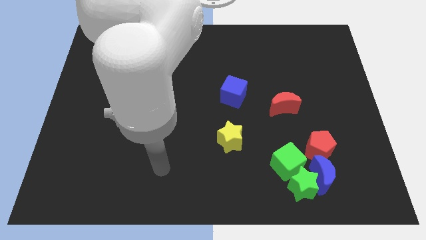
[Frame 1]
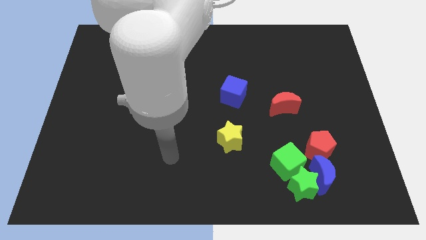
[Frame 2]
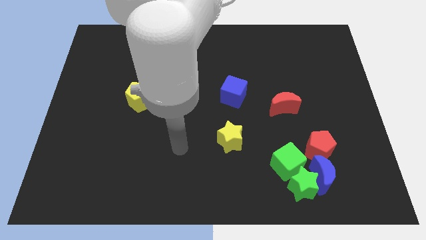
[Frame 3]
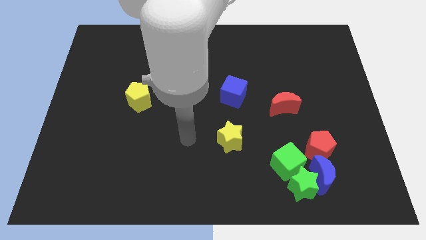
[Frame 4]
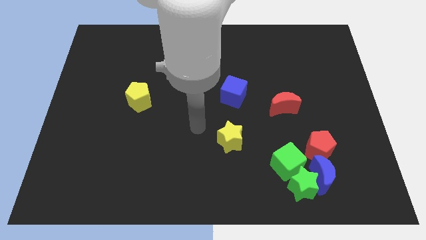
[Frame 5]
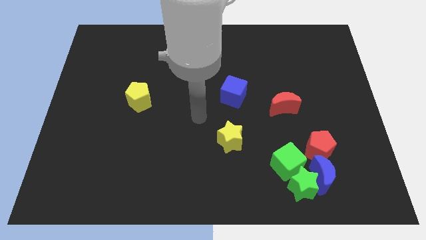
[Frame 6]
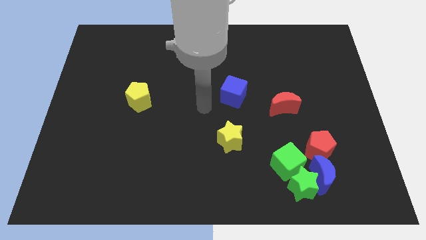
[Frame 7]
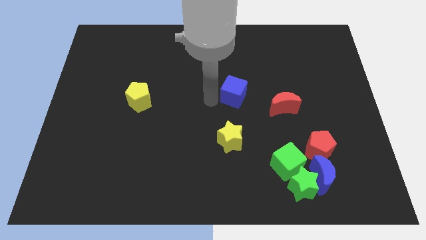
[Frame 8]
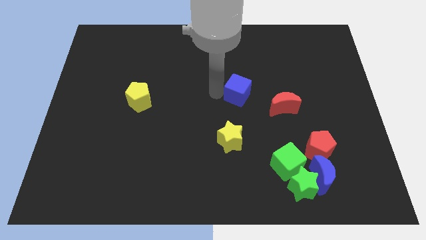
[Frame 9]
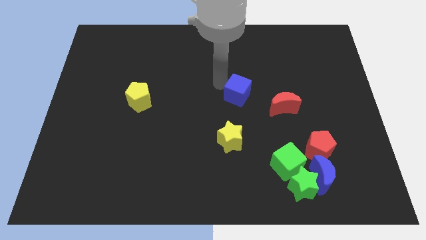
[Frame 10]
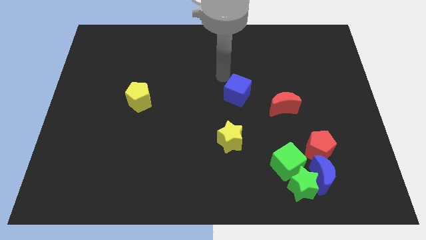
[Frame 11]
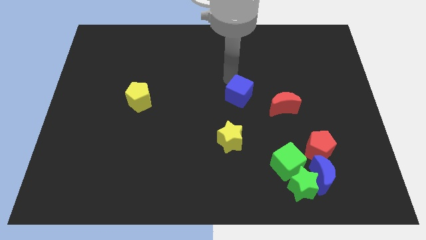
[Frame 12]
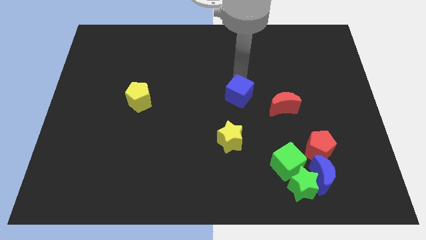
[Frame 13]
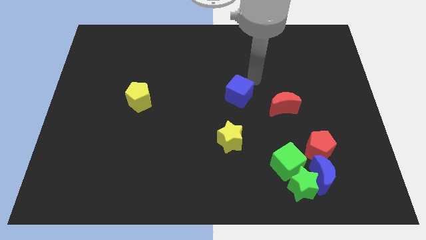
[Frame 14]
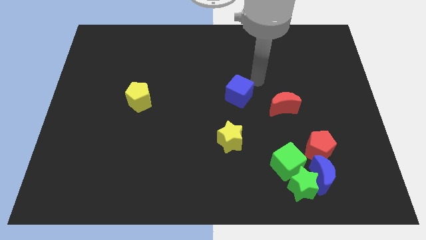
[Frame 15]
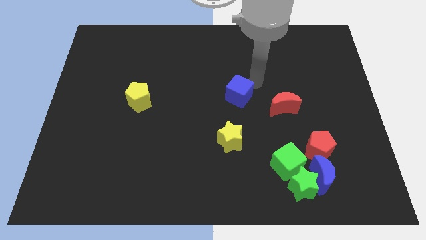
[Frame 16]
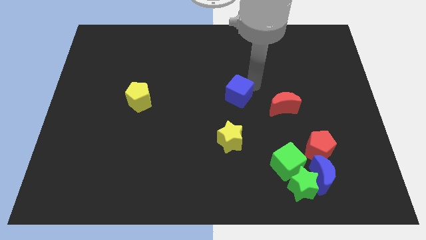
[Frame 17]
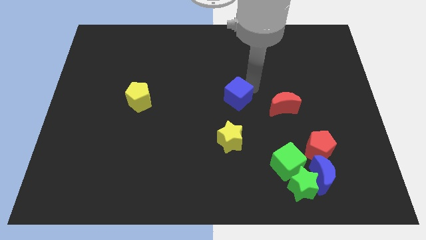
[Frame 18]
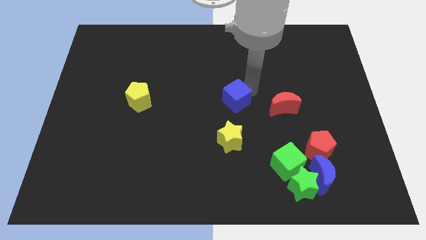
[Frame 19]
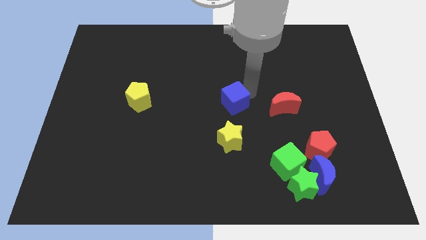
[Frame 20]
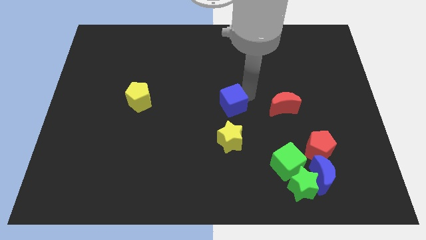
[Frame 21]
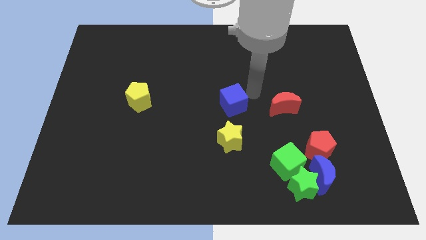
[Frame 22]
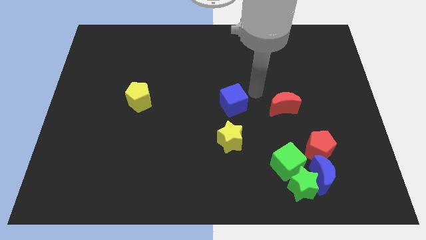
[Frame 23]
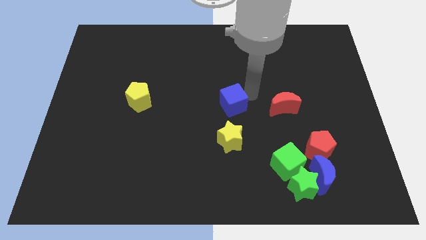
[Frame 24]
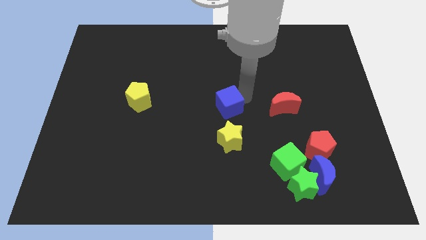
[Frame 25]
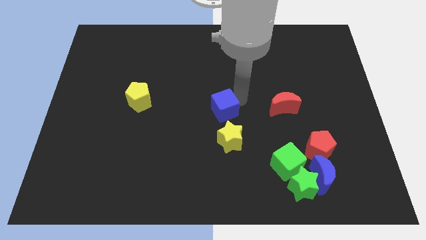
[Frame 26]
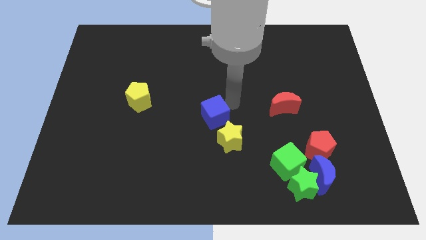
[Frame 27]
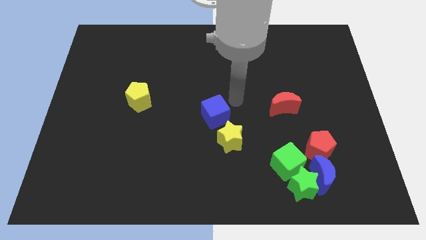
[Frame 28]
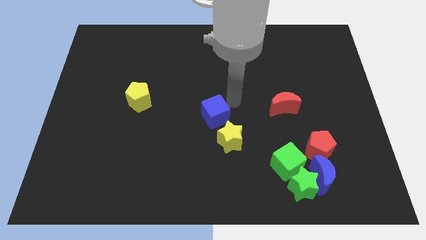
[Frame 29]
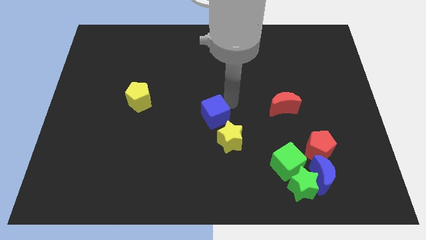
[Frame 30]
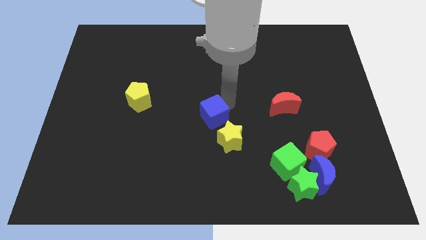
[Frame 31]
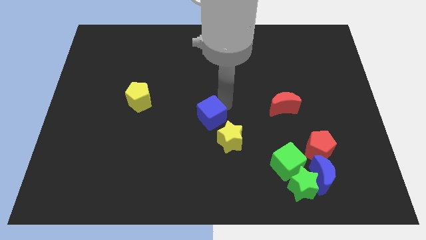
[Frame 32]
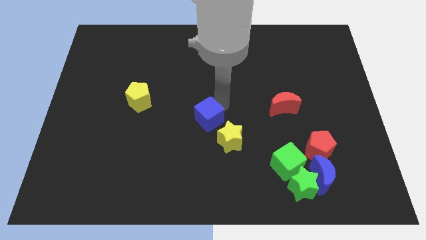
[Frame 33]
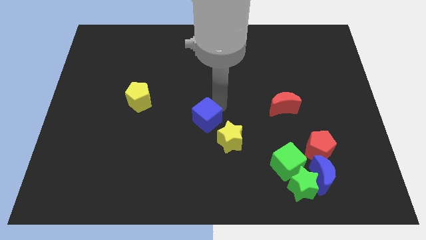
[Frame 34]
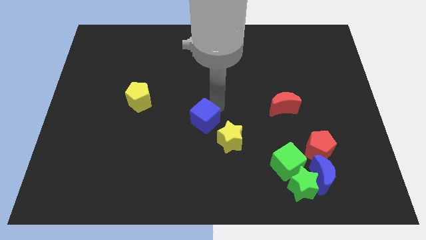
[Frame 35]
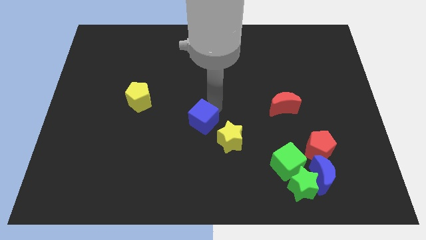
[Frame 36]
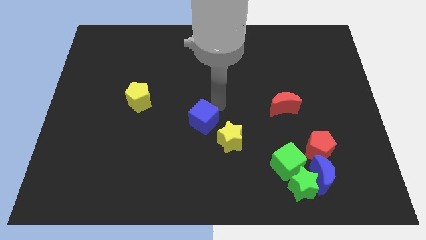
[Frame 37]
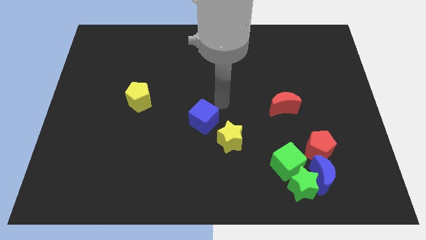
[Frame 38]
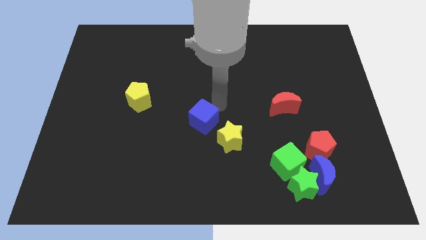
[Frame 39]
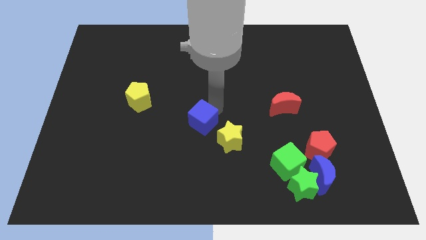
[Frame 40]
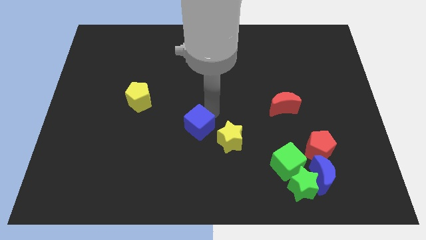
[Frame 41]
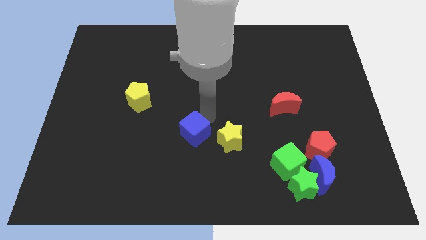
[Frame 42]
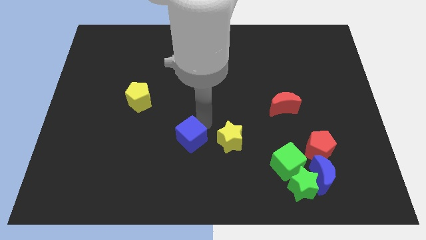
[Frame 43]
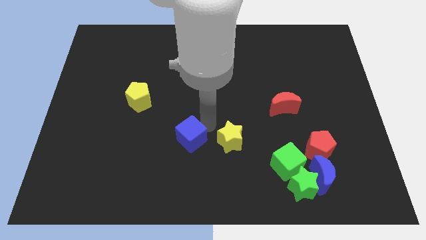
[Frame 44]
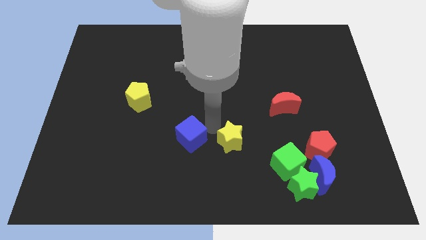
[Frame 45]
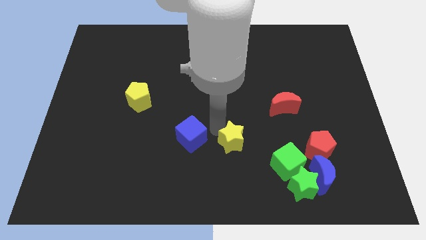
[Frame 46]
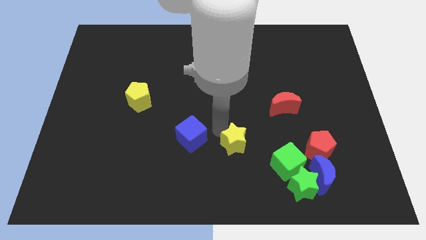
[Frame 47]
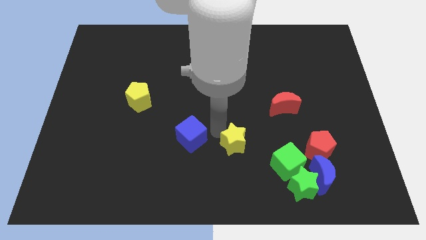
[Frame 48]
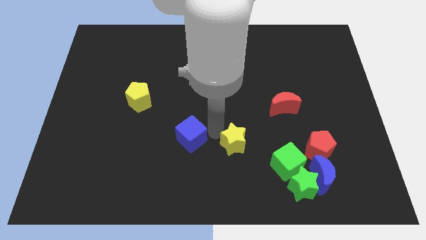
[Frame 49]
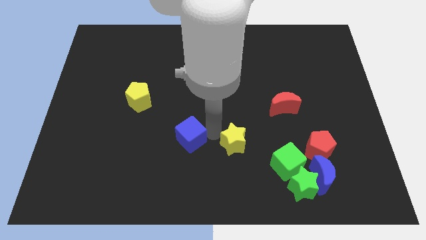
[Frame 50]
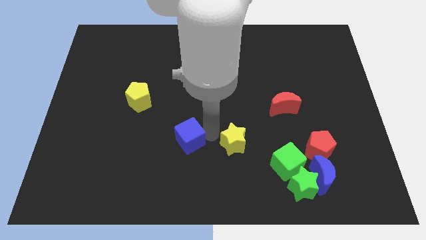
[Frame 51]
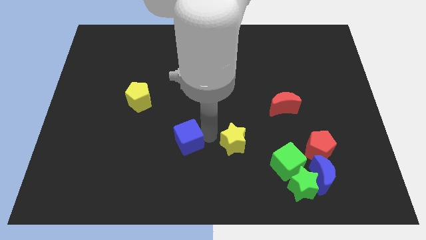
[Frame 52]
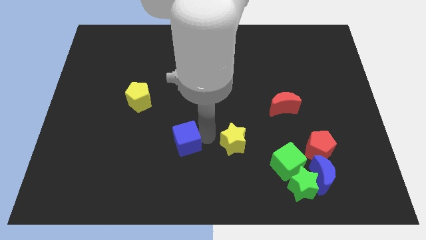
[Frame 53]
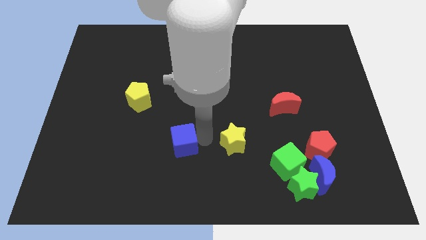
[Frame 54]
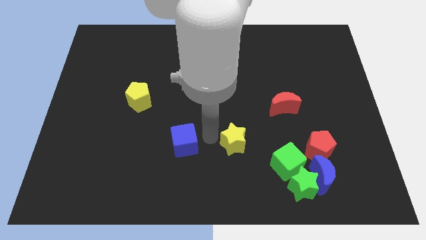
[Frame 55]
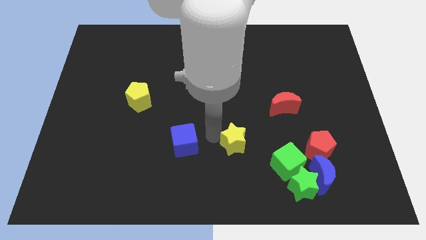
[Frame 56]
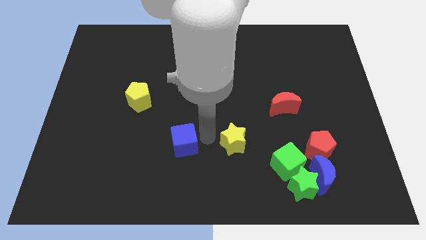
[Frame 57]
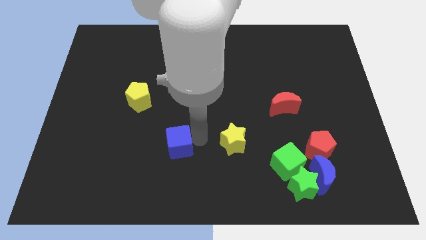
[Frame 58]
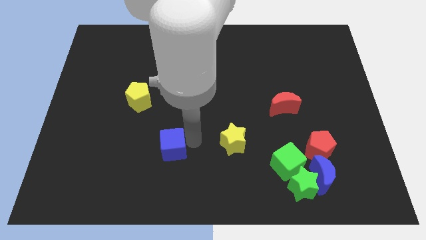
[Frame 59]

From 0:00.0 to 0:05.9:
move the blue cube diagonally down and left

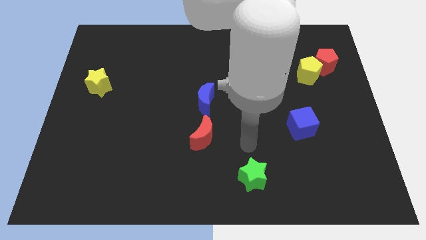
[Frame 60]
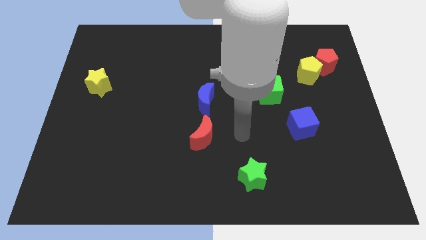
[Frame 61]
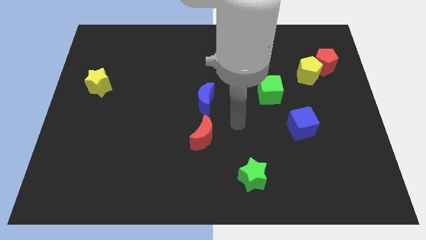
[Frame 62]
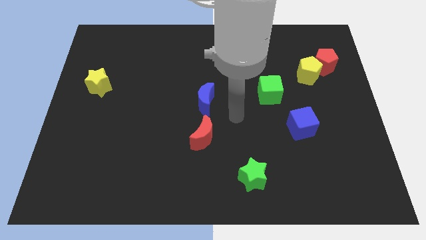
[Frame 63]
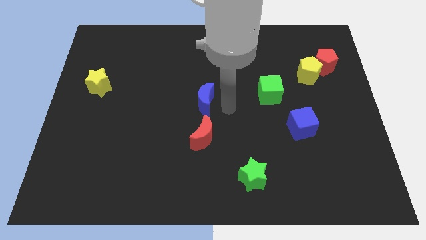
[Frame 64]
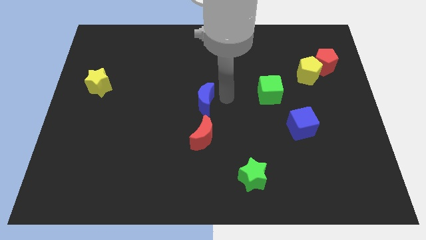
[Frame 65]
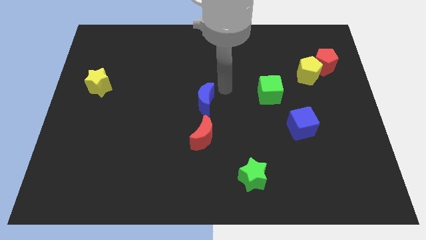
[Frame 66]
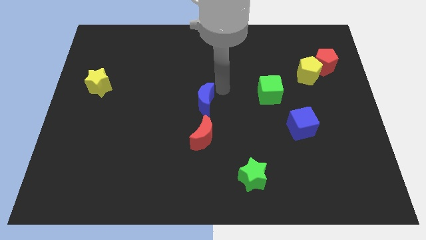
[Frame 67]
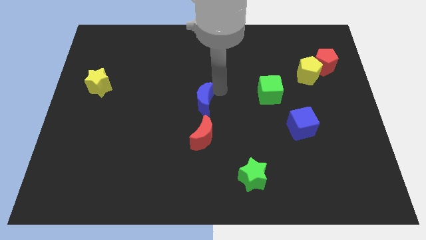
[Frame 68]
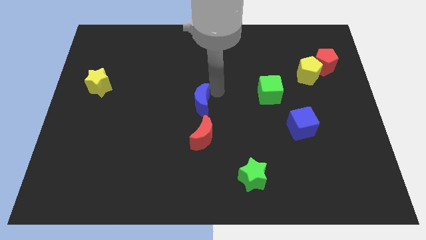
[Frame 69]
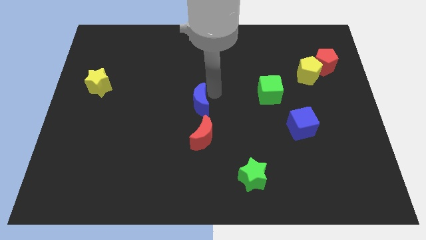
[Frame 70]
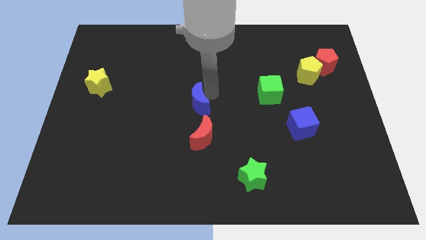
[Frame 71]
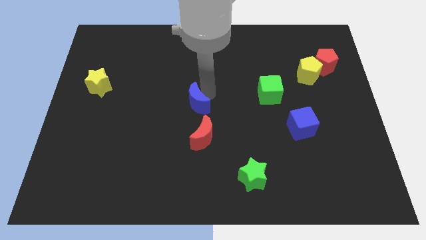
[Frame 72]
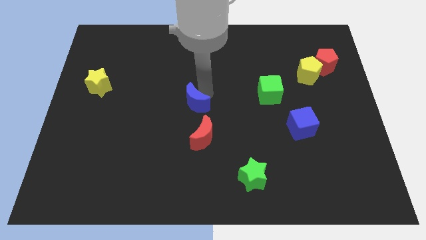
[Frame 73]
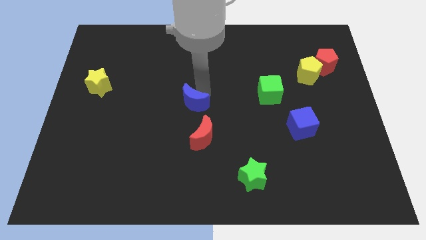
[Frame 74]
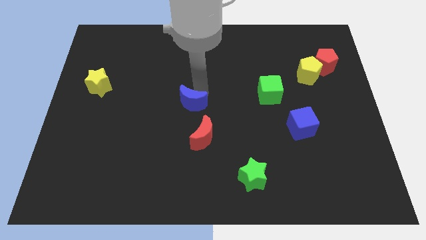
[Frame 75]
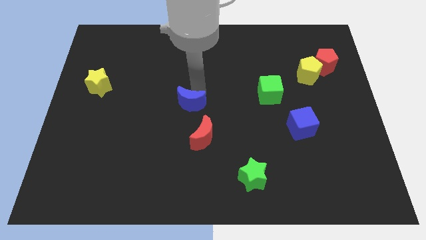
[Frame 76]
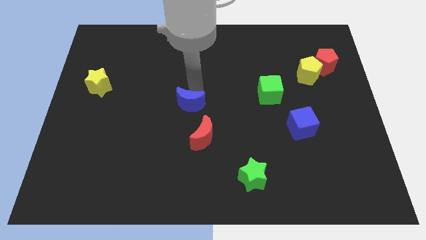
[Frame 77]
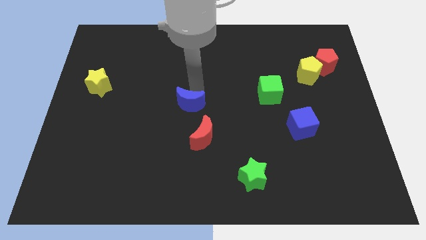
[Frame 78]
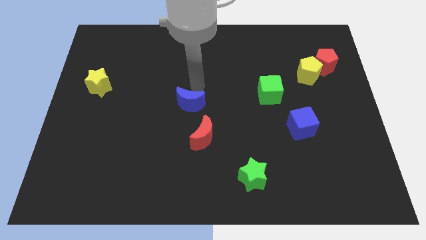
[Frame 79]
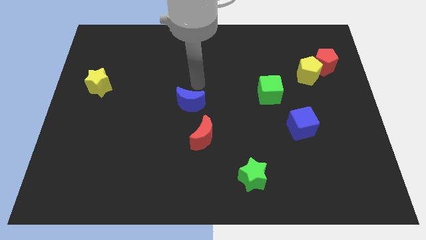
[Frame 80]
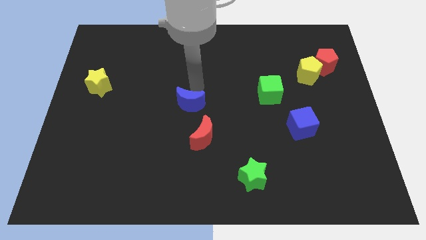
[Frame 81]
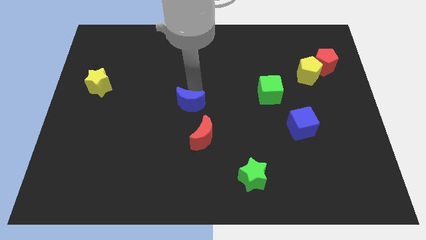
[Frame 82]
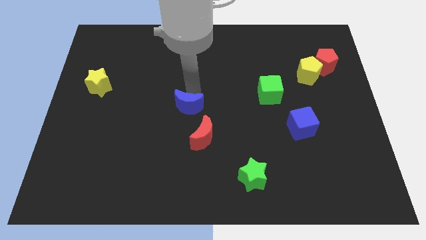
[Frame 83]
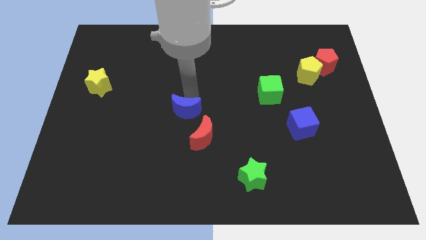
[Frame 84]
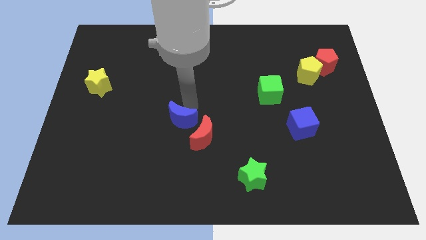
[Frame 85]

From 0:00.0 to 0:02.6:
move the blue moon a little diagonally downwards and to the left
